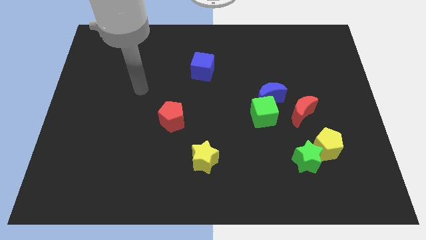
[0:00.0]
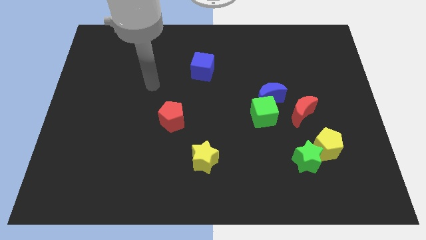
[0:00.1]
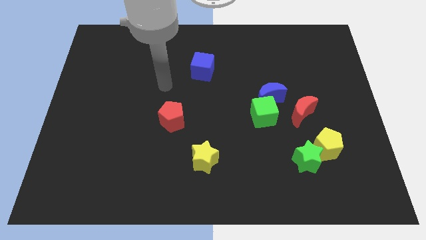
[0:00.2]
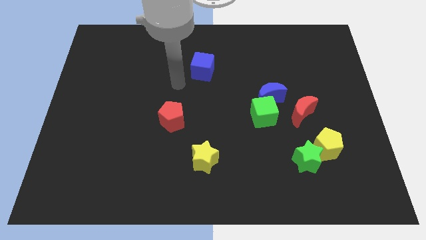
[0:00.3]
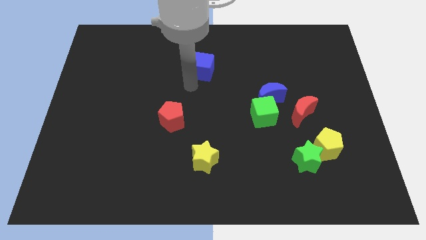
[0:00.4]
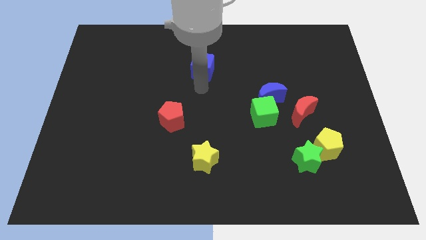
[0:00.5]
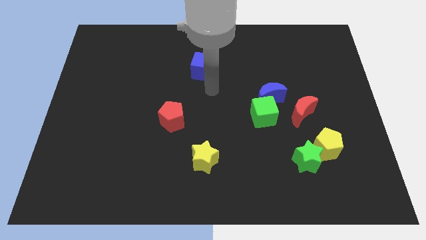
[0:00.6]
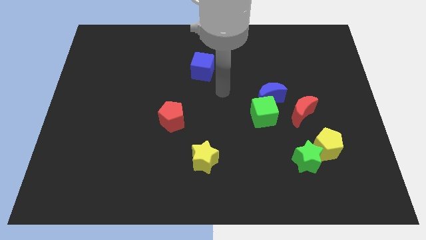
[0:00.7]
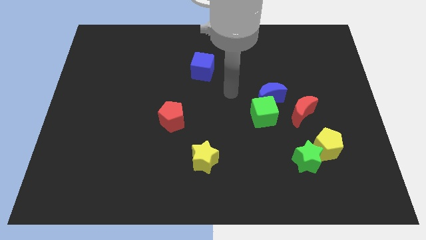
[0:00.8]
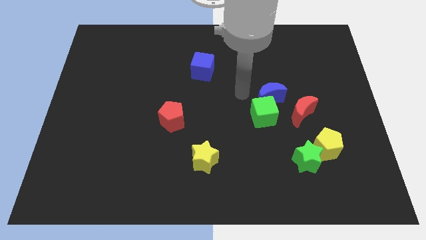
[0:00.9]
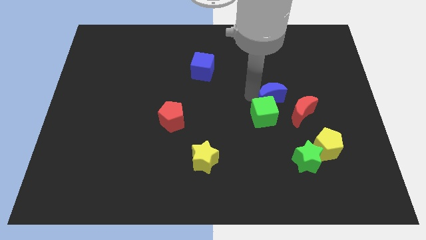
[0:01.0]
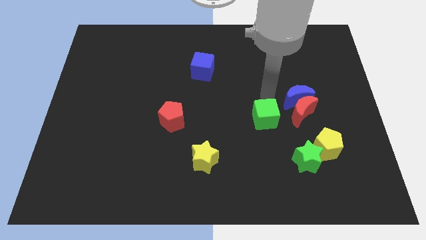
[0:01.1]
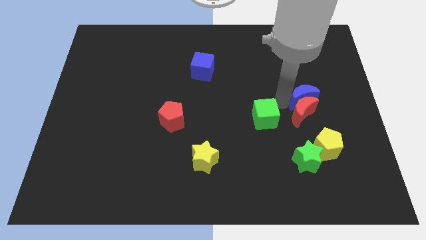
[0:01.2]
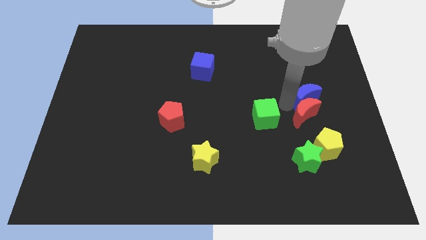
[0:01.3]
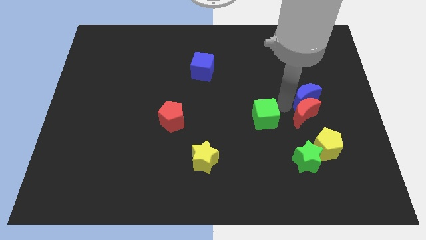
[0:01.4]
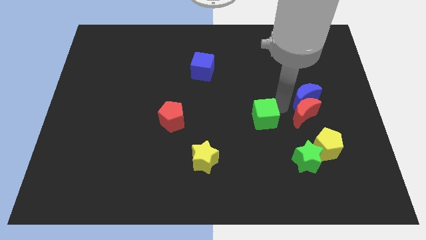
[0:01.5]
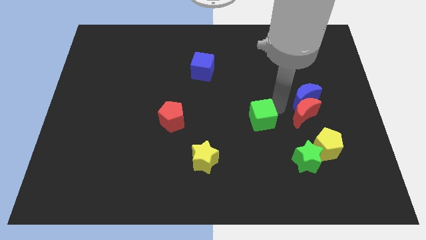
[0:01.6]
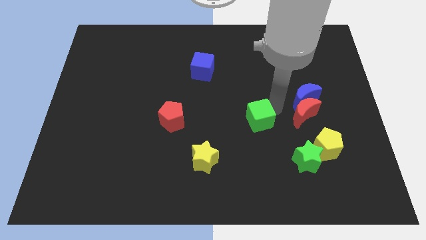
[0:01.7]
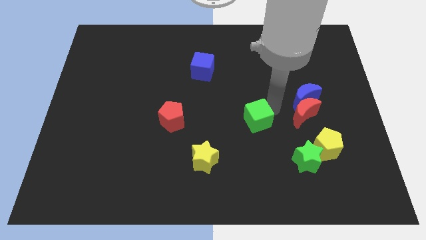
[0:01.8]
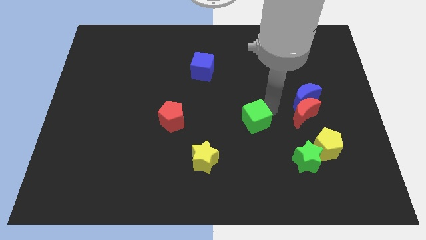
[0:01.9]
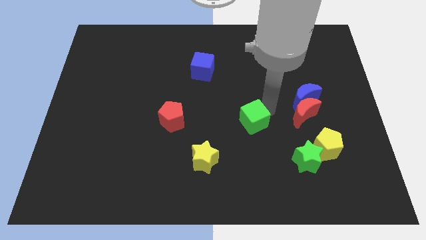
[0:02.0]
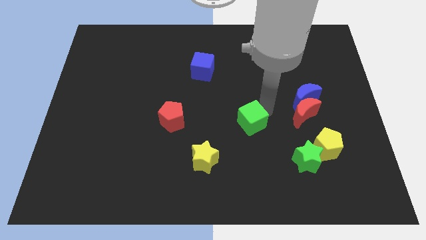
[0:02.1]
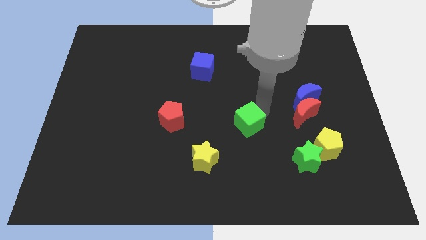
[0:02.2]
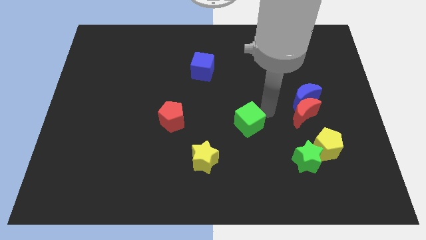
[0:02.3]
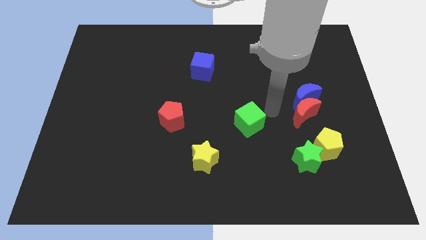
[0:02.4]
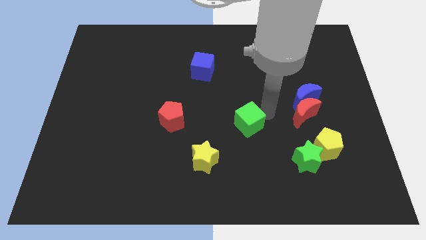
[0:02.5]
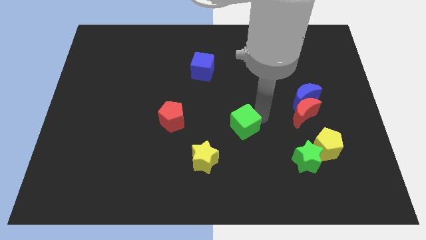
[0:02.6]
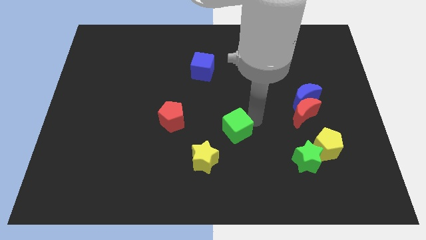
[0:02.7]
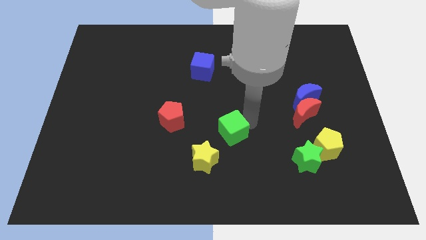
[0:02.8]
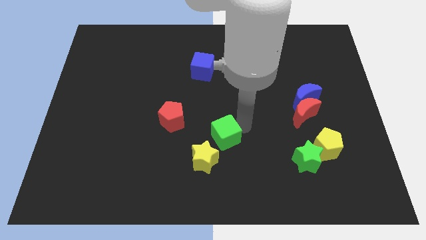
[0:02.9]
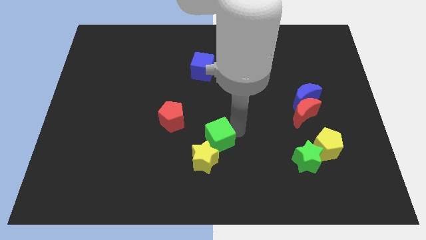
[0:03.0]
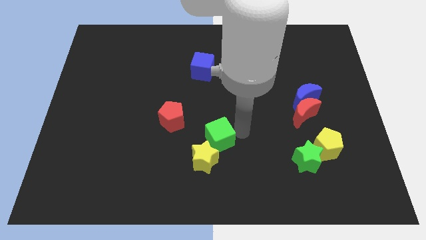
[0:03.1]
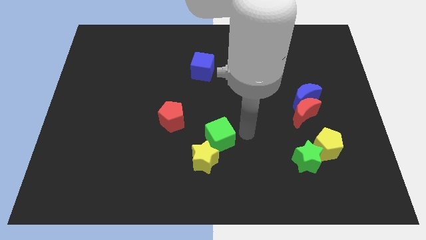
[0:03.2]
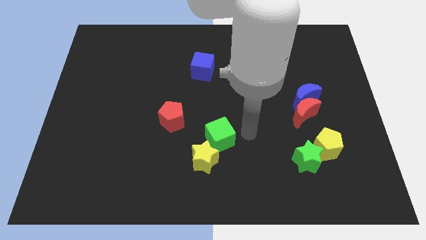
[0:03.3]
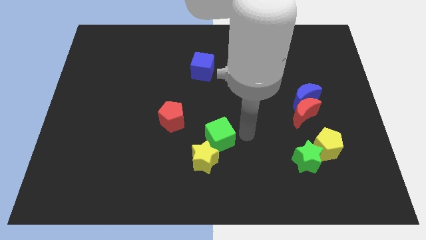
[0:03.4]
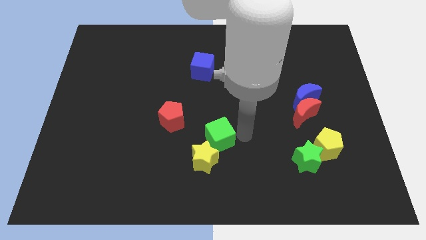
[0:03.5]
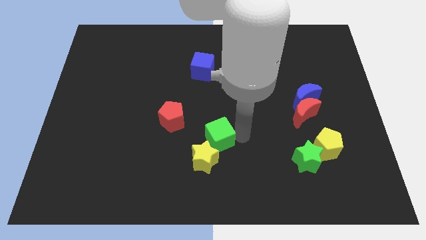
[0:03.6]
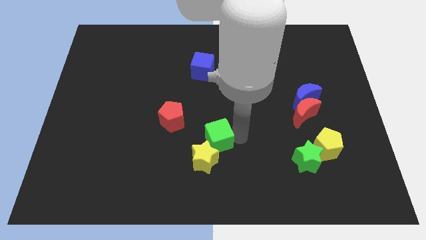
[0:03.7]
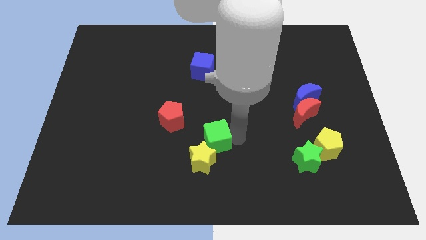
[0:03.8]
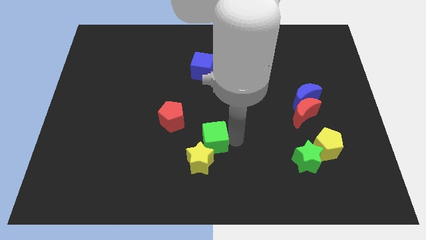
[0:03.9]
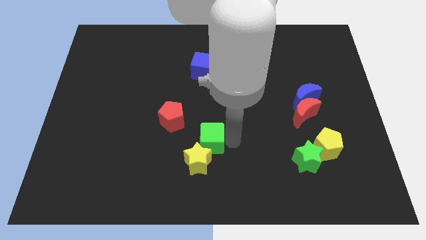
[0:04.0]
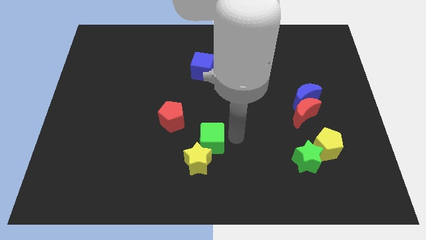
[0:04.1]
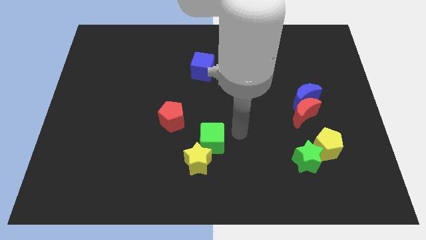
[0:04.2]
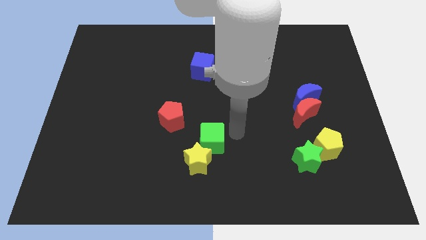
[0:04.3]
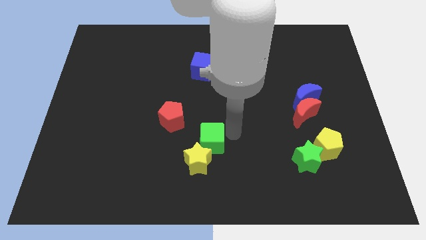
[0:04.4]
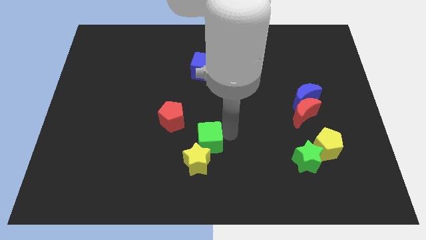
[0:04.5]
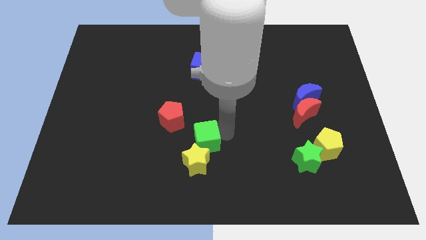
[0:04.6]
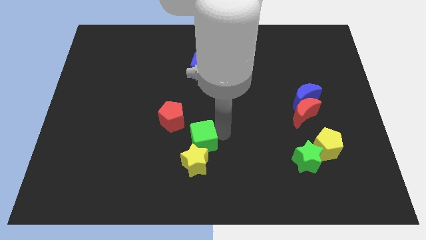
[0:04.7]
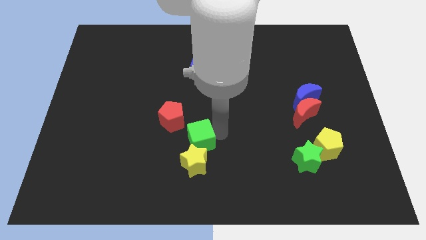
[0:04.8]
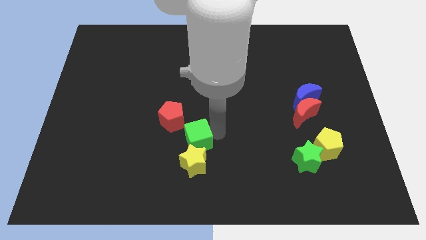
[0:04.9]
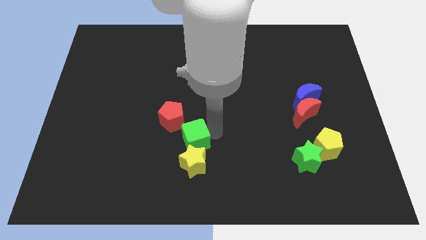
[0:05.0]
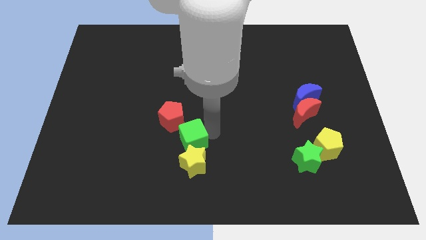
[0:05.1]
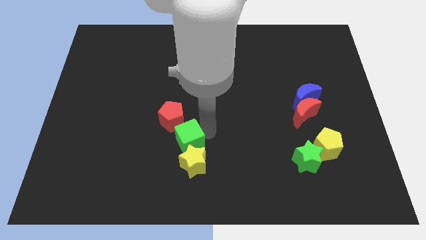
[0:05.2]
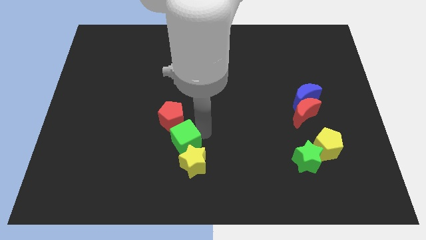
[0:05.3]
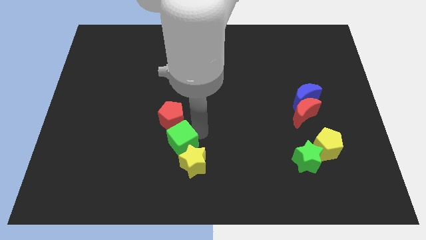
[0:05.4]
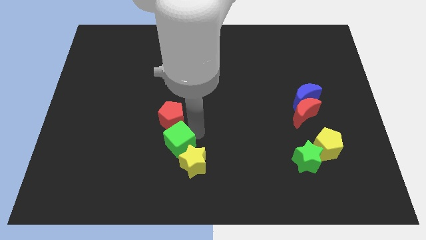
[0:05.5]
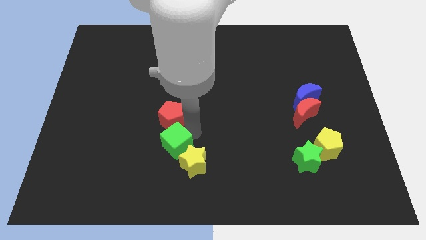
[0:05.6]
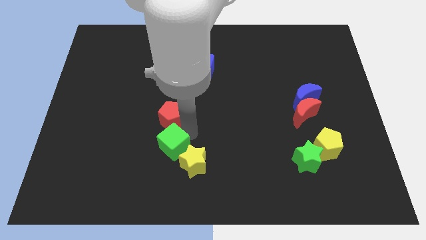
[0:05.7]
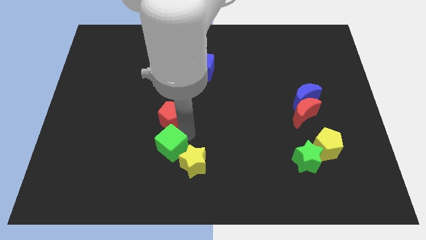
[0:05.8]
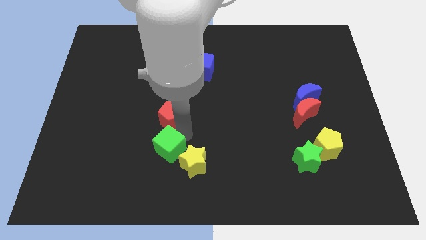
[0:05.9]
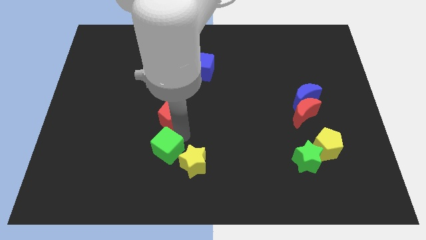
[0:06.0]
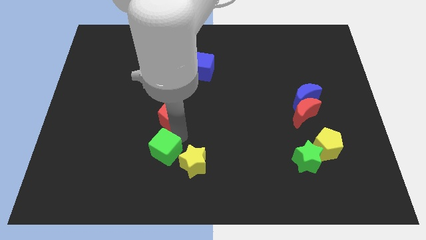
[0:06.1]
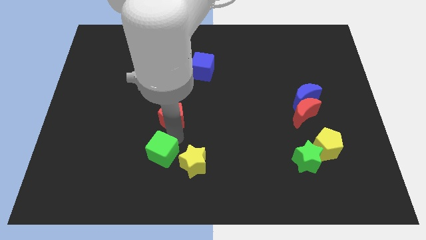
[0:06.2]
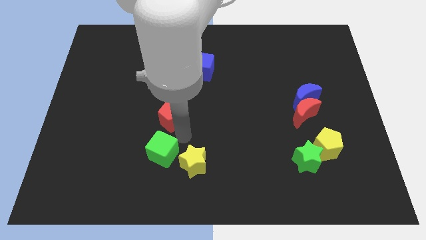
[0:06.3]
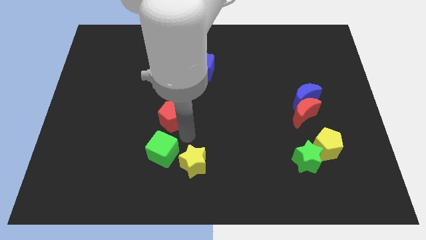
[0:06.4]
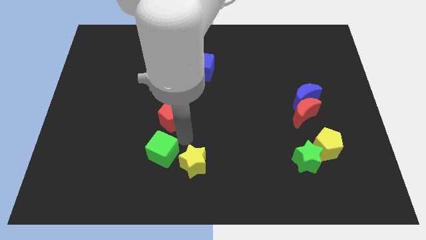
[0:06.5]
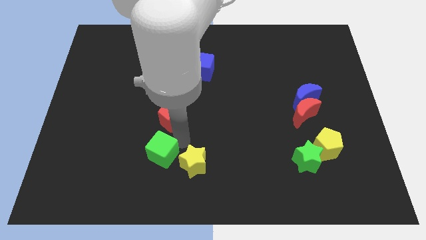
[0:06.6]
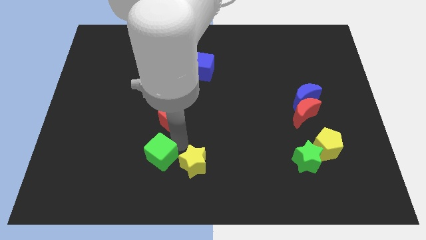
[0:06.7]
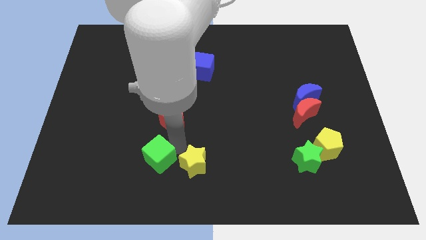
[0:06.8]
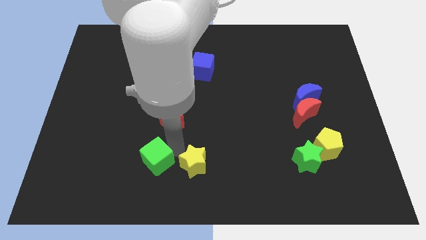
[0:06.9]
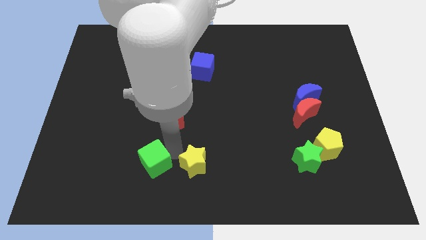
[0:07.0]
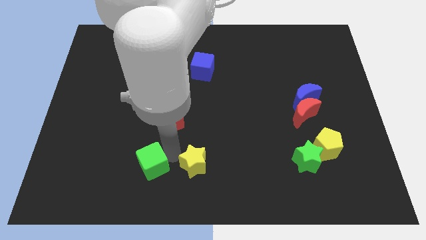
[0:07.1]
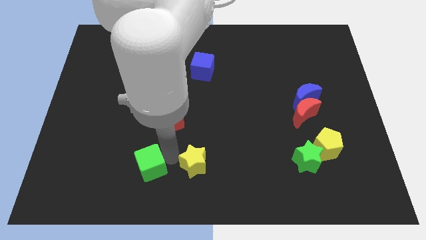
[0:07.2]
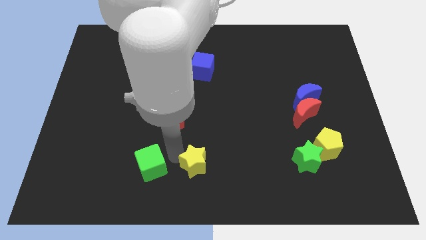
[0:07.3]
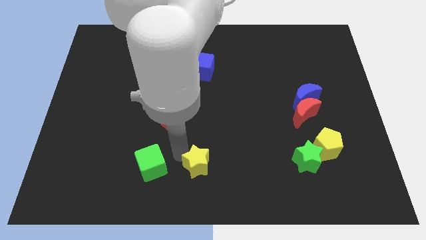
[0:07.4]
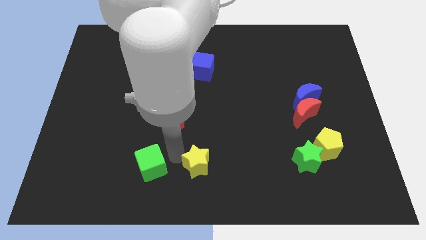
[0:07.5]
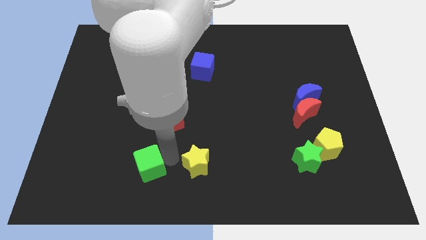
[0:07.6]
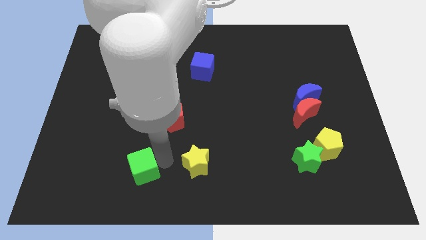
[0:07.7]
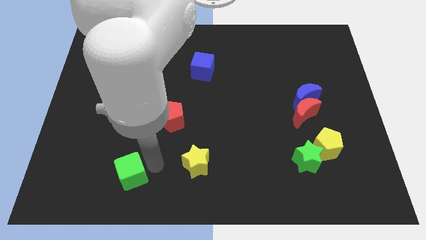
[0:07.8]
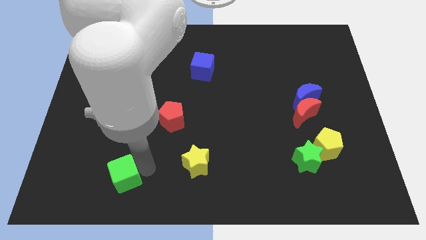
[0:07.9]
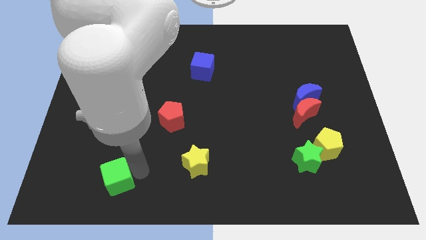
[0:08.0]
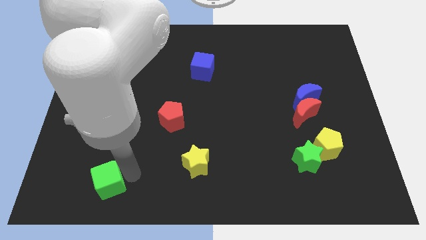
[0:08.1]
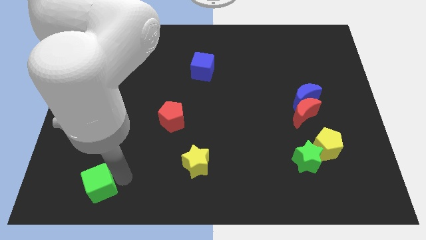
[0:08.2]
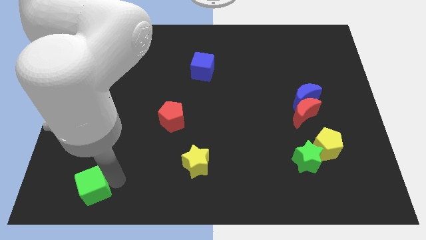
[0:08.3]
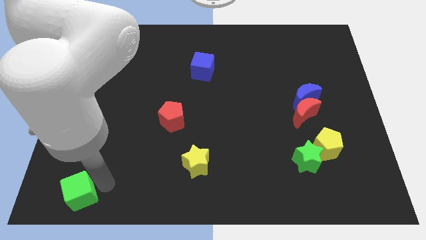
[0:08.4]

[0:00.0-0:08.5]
slide the green cube to the bottom left corner
